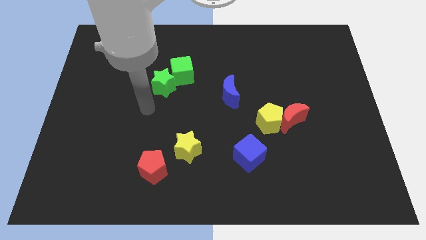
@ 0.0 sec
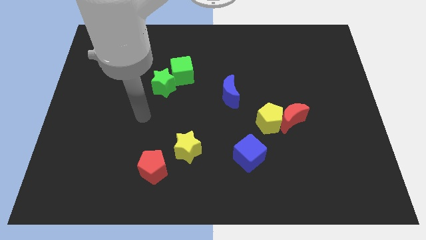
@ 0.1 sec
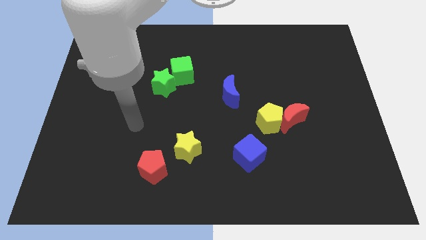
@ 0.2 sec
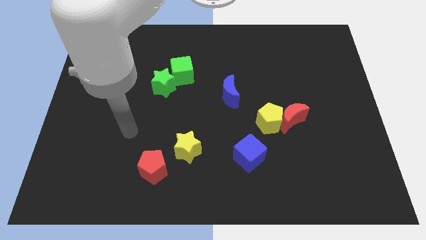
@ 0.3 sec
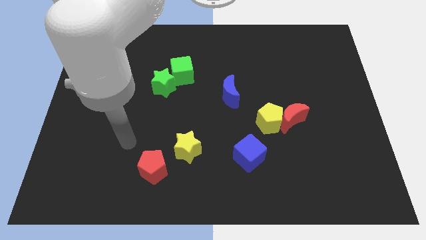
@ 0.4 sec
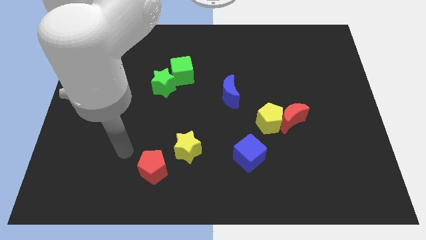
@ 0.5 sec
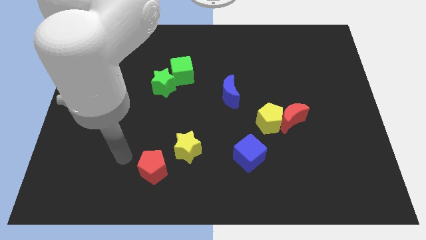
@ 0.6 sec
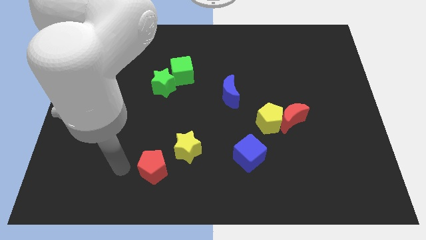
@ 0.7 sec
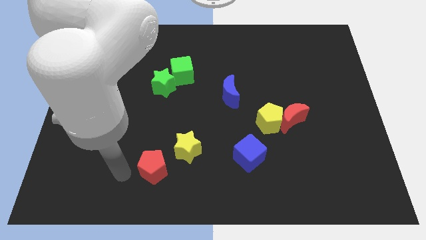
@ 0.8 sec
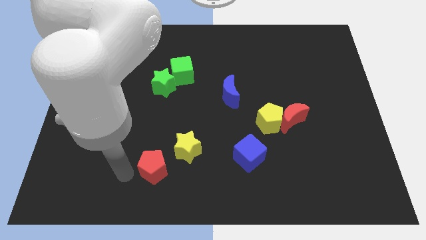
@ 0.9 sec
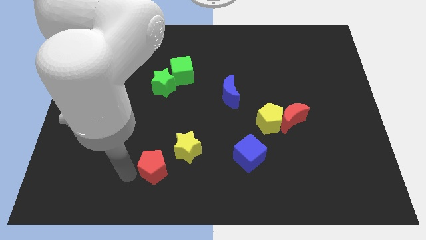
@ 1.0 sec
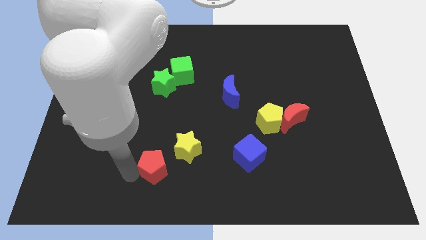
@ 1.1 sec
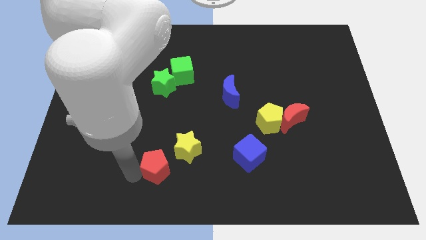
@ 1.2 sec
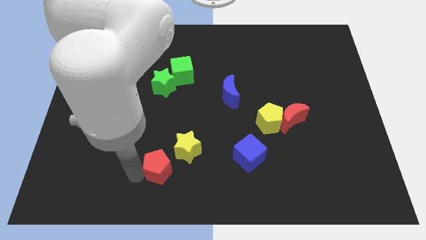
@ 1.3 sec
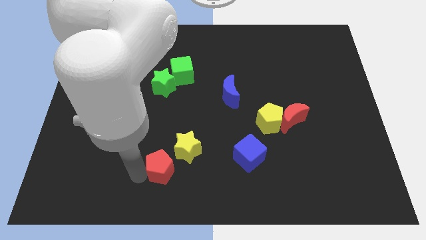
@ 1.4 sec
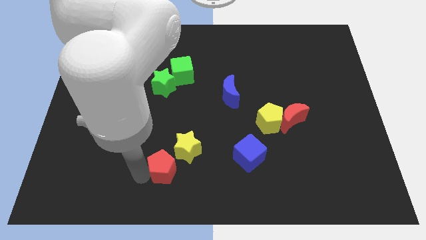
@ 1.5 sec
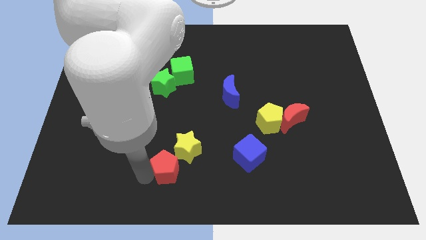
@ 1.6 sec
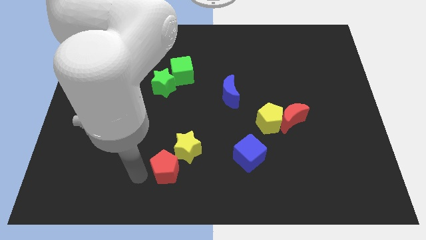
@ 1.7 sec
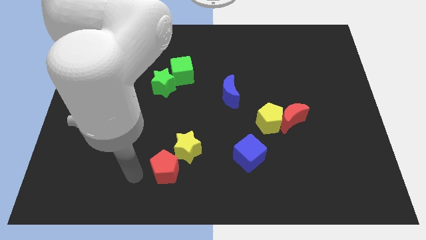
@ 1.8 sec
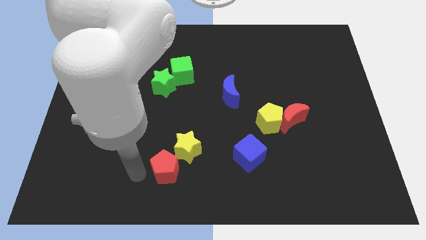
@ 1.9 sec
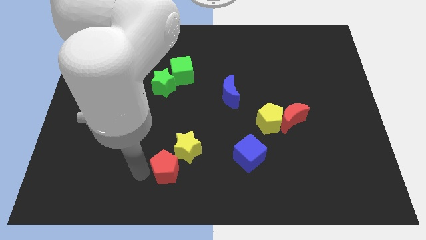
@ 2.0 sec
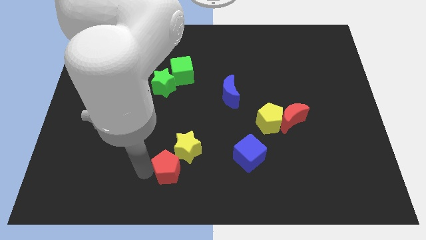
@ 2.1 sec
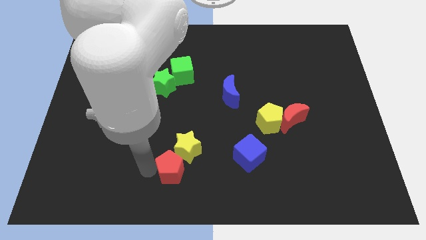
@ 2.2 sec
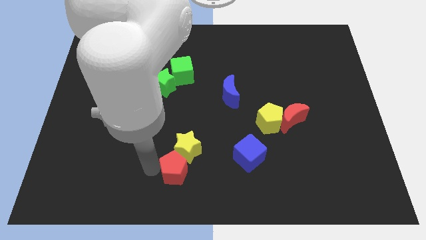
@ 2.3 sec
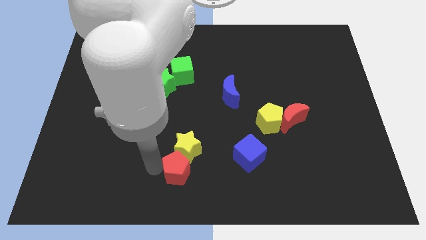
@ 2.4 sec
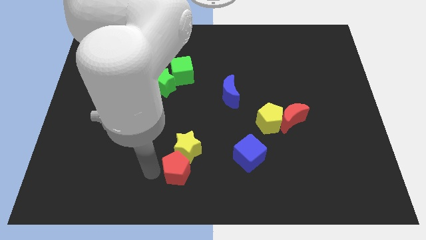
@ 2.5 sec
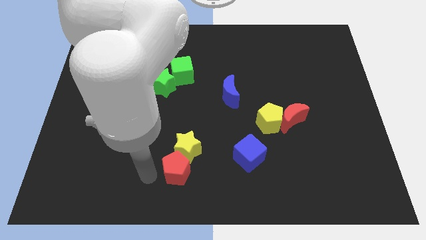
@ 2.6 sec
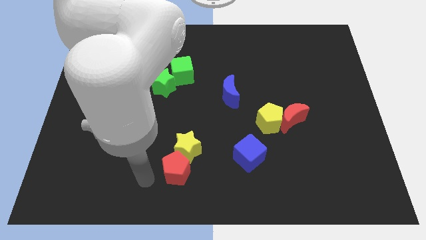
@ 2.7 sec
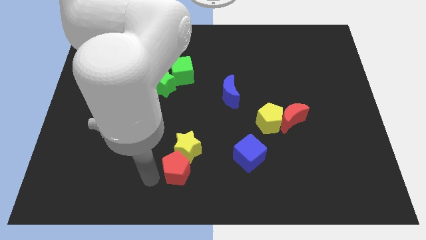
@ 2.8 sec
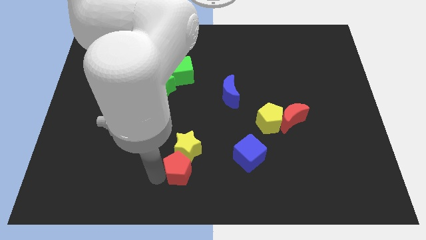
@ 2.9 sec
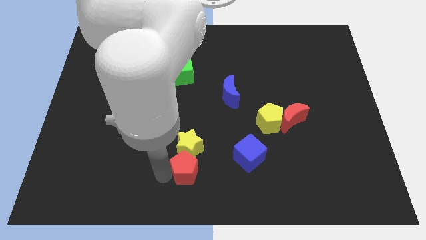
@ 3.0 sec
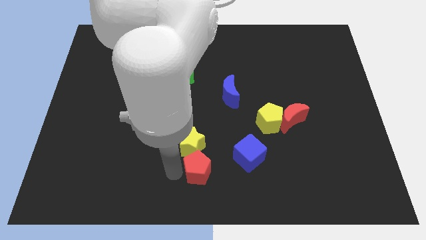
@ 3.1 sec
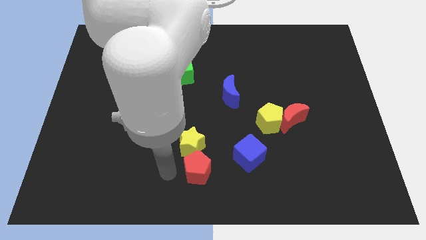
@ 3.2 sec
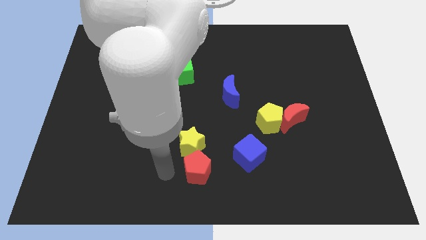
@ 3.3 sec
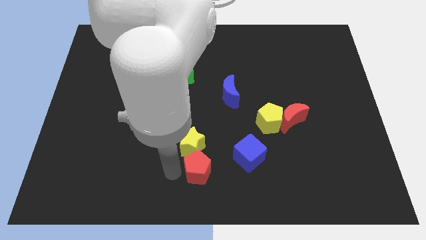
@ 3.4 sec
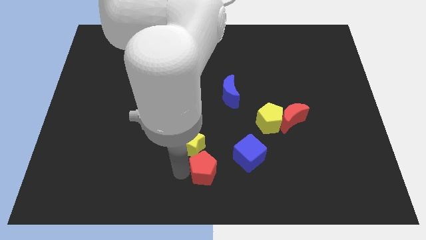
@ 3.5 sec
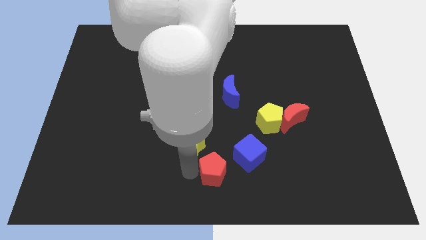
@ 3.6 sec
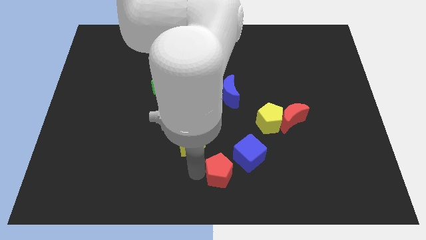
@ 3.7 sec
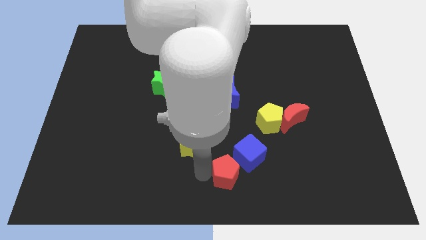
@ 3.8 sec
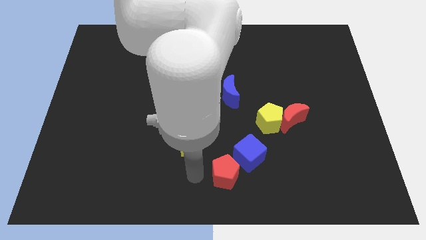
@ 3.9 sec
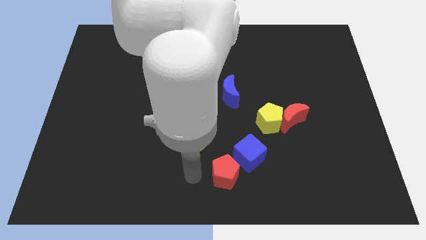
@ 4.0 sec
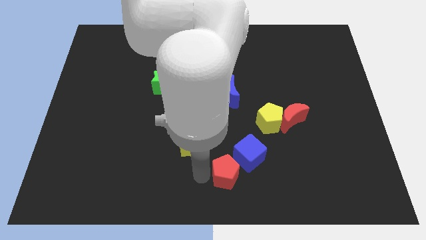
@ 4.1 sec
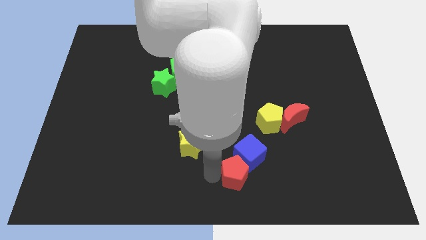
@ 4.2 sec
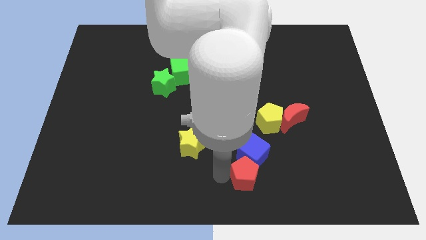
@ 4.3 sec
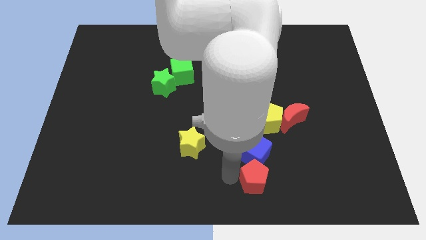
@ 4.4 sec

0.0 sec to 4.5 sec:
push the red pentagon to the right

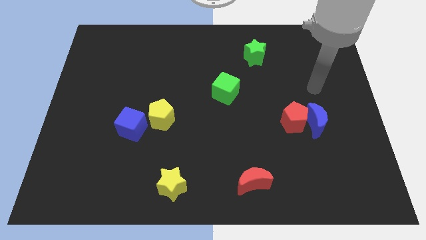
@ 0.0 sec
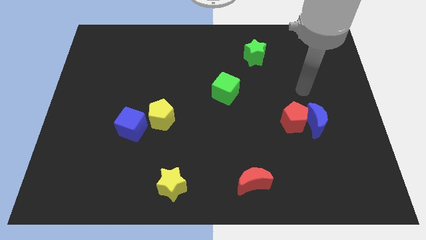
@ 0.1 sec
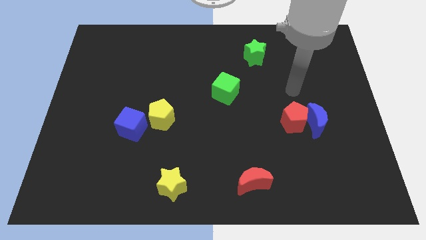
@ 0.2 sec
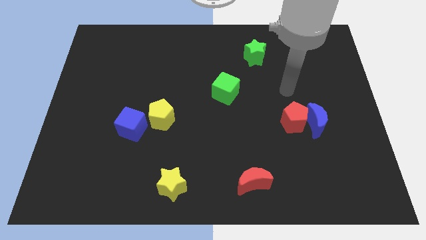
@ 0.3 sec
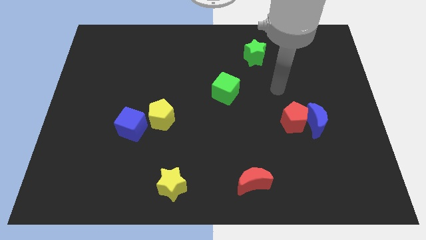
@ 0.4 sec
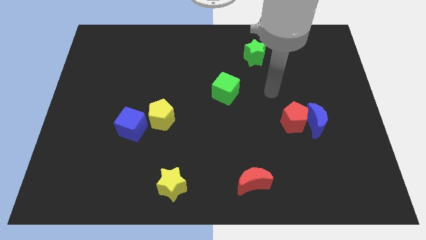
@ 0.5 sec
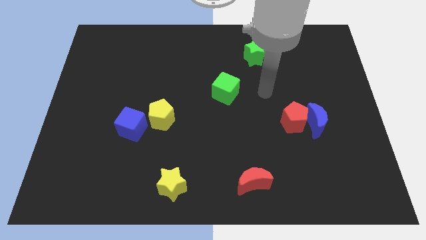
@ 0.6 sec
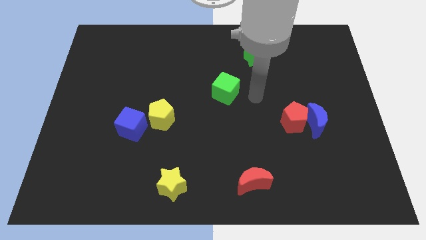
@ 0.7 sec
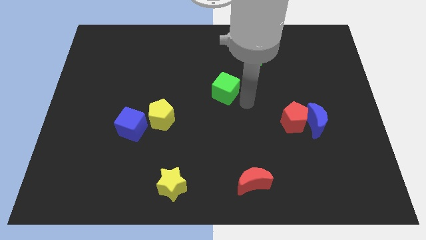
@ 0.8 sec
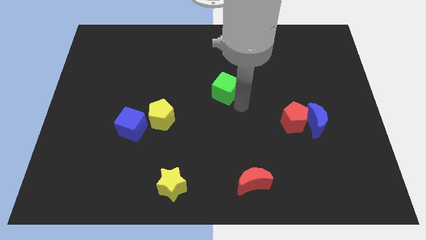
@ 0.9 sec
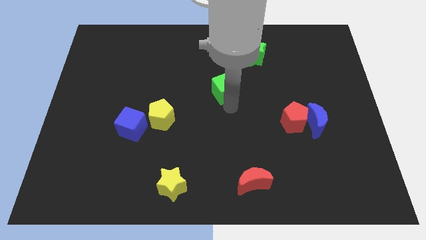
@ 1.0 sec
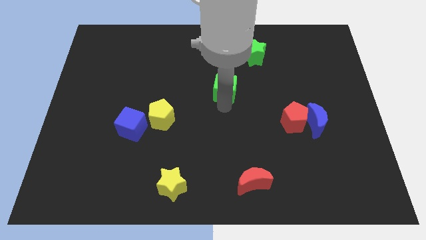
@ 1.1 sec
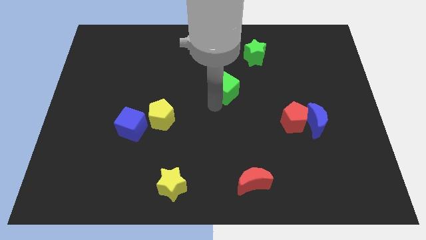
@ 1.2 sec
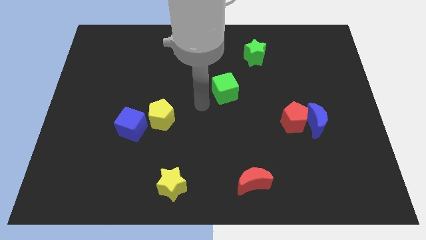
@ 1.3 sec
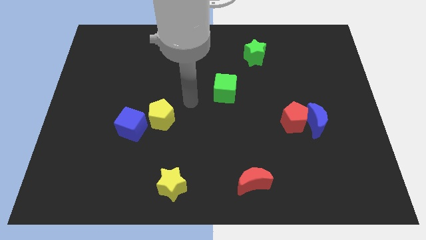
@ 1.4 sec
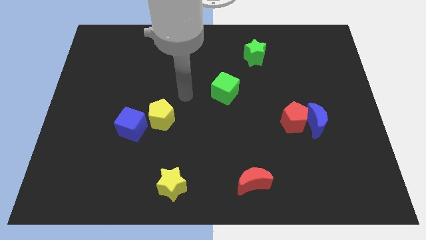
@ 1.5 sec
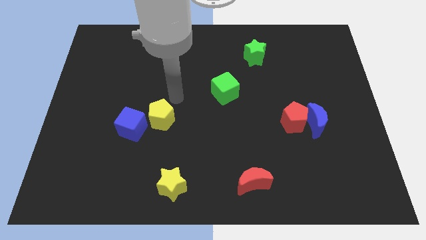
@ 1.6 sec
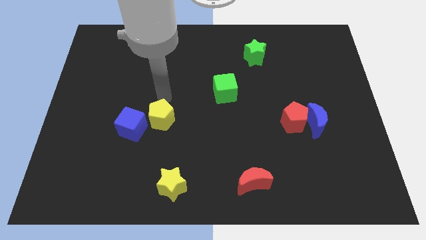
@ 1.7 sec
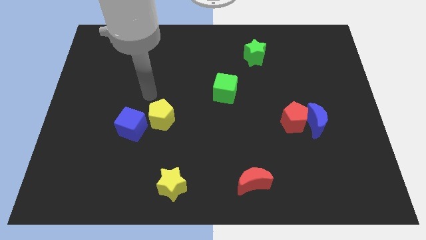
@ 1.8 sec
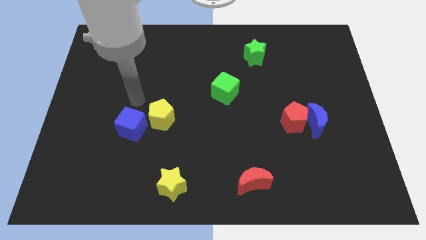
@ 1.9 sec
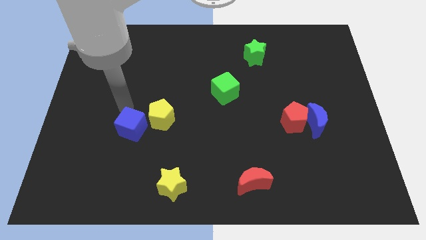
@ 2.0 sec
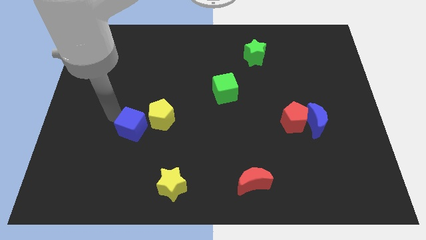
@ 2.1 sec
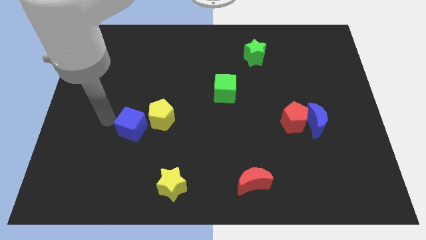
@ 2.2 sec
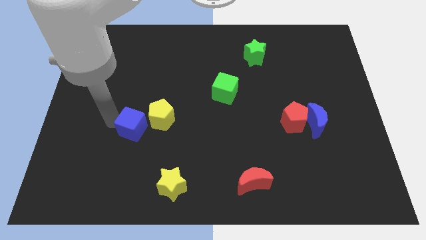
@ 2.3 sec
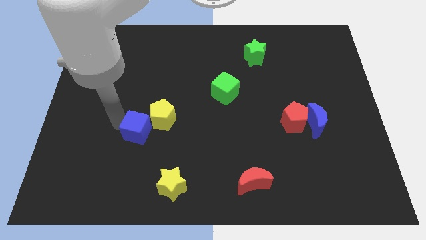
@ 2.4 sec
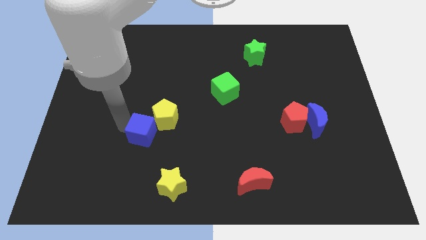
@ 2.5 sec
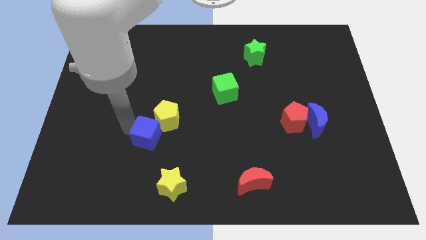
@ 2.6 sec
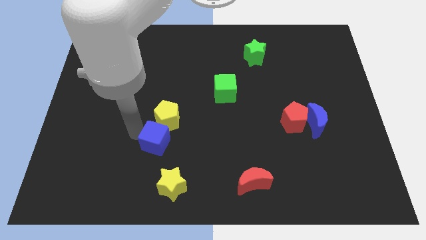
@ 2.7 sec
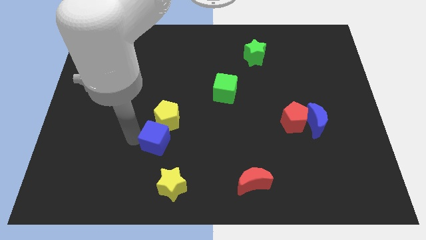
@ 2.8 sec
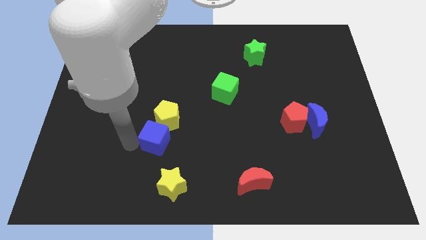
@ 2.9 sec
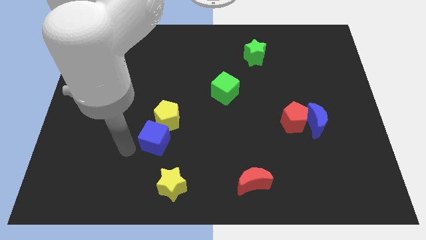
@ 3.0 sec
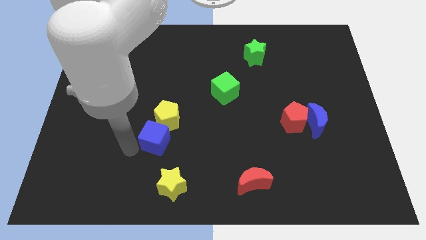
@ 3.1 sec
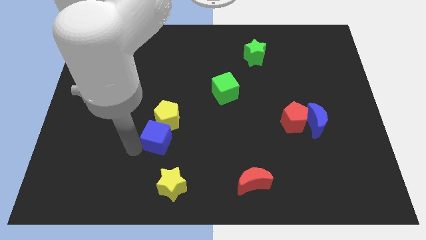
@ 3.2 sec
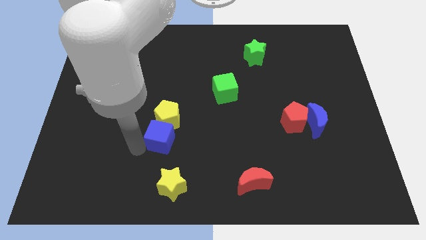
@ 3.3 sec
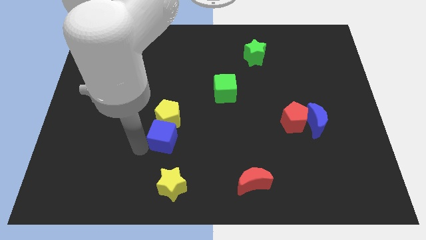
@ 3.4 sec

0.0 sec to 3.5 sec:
slide the blue cube to the right slightly
